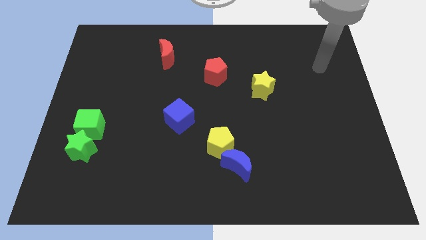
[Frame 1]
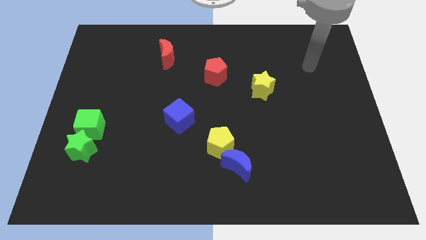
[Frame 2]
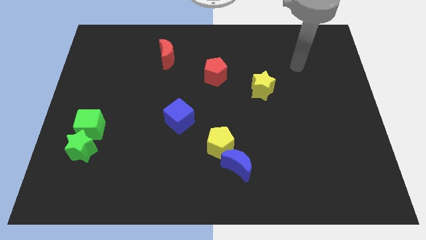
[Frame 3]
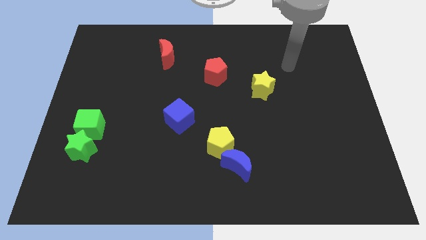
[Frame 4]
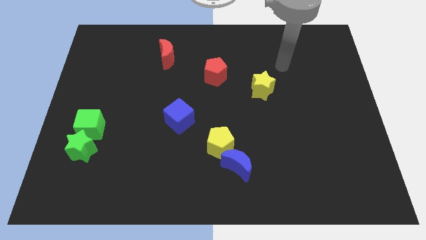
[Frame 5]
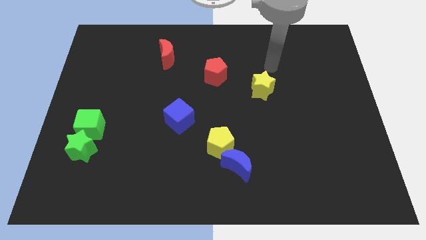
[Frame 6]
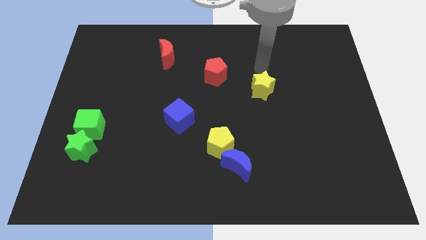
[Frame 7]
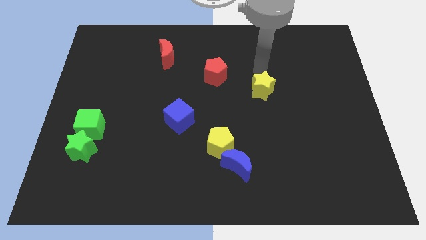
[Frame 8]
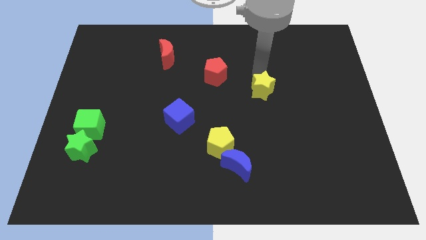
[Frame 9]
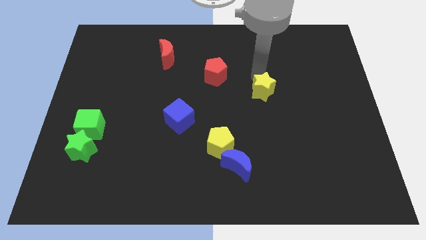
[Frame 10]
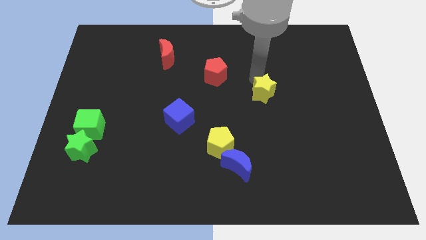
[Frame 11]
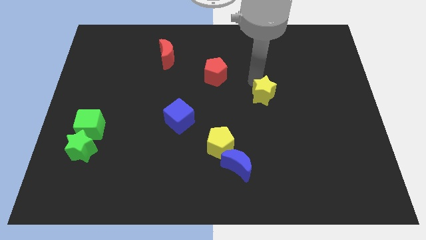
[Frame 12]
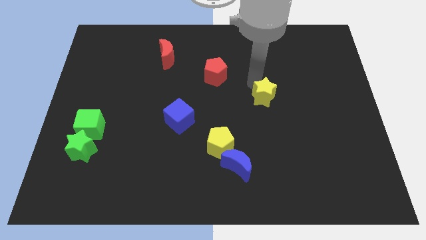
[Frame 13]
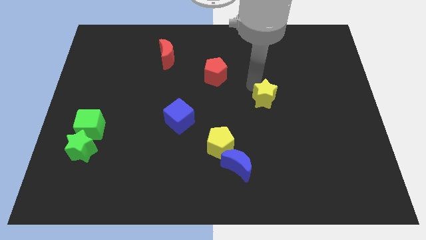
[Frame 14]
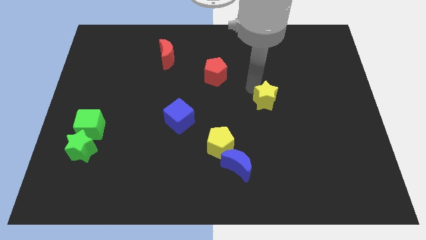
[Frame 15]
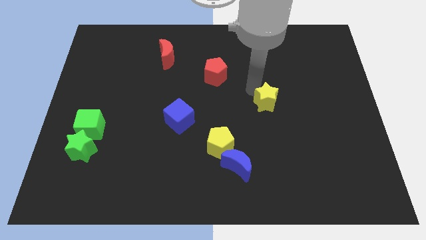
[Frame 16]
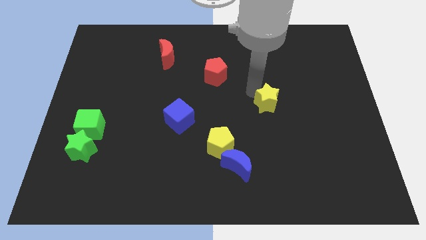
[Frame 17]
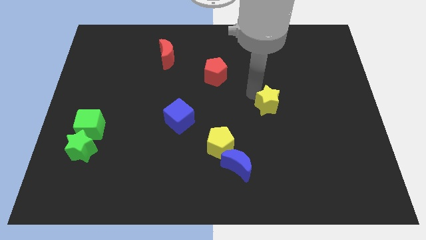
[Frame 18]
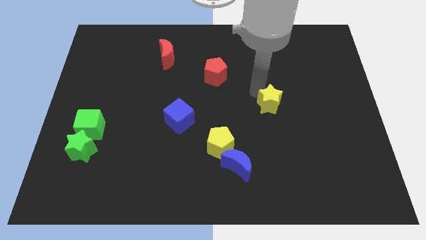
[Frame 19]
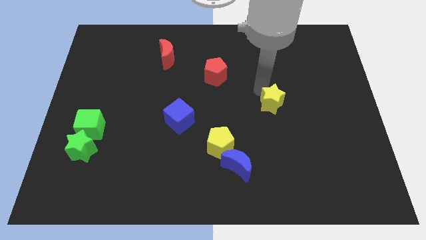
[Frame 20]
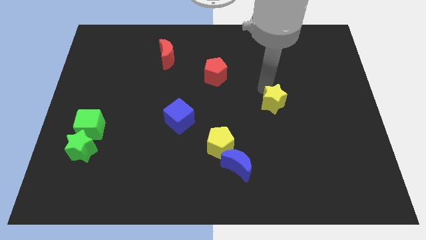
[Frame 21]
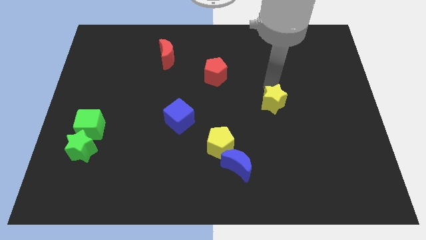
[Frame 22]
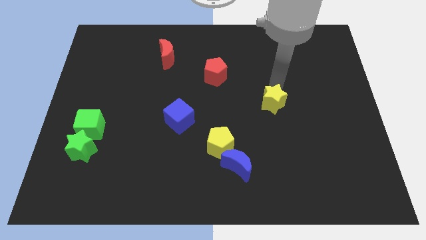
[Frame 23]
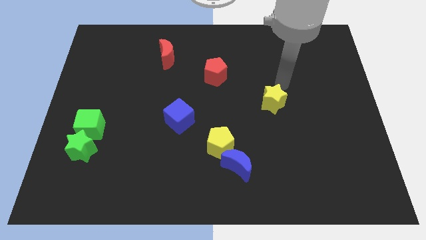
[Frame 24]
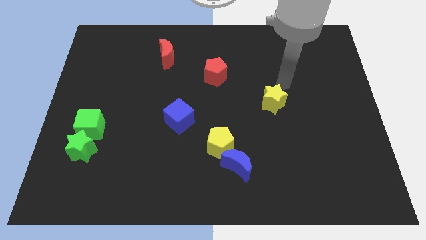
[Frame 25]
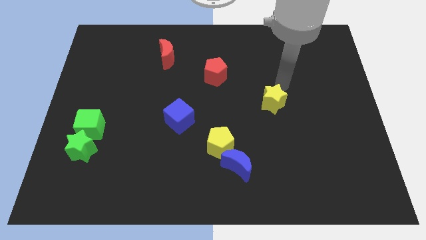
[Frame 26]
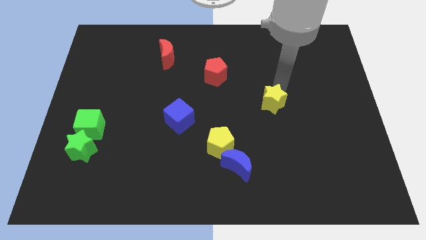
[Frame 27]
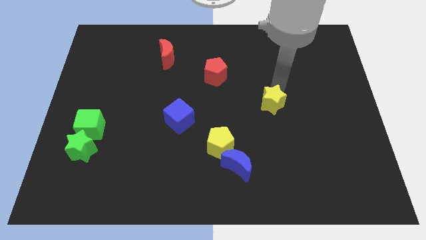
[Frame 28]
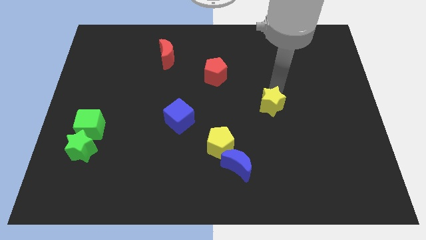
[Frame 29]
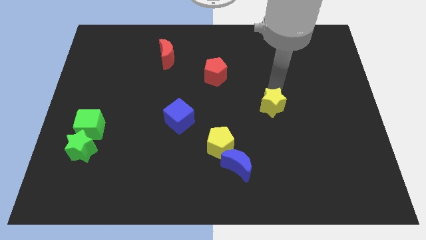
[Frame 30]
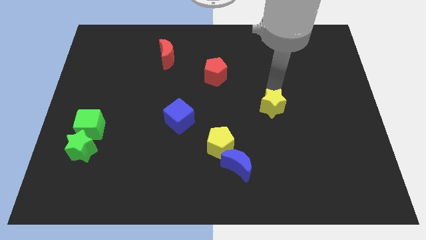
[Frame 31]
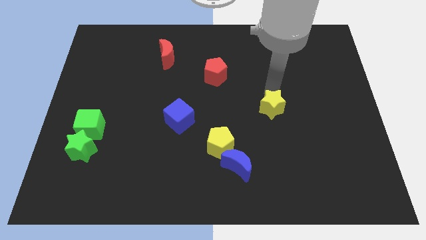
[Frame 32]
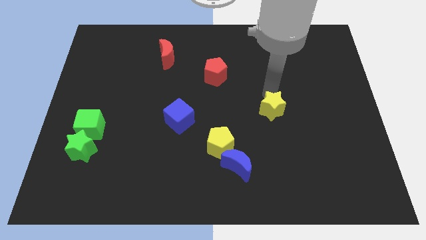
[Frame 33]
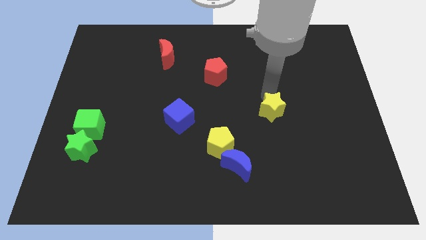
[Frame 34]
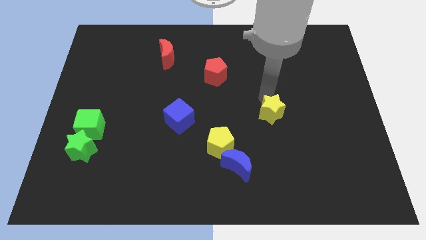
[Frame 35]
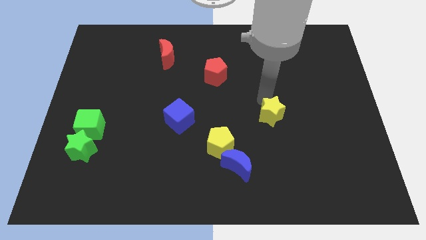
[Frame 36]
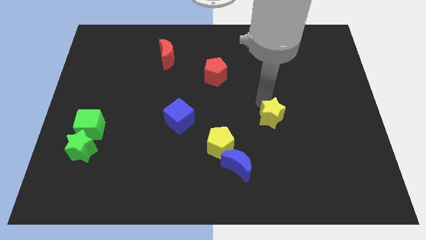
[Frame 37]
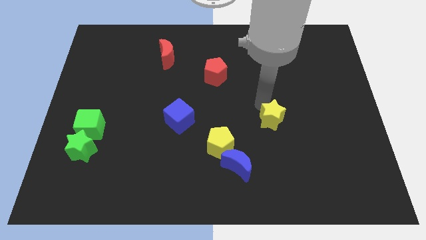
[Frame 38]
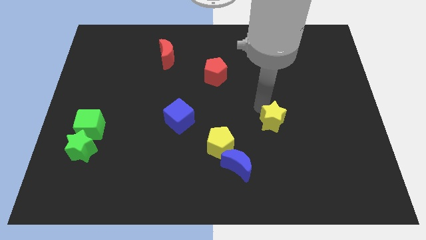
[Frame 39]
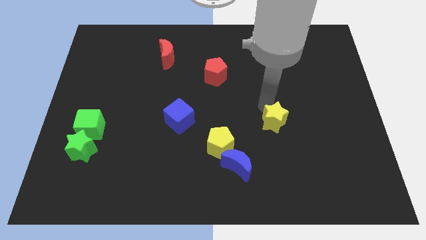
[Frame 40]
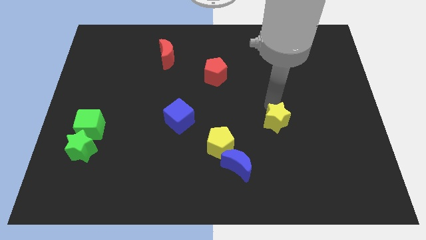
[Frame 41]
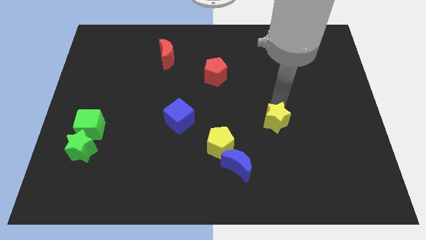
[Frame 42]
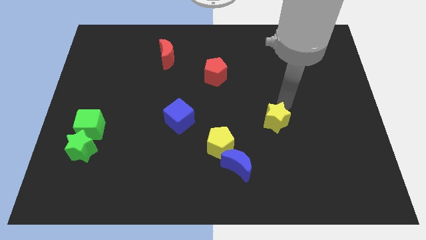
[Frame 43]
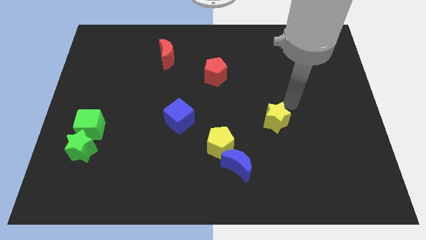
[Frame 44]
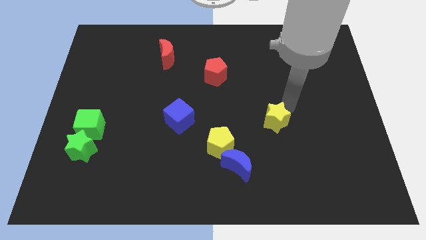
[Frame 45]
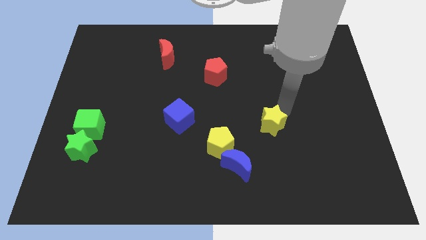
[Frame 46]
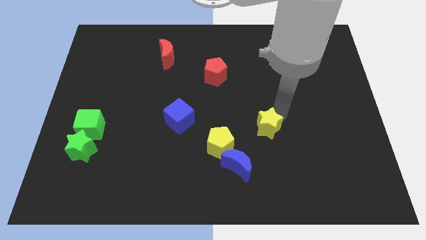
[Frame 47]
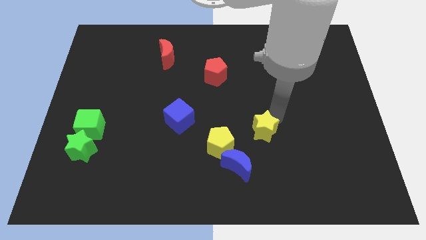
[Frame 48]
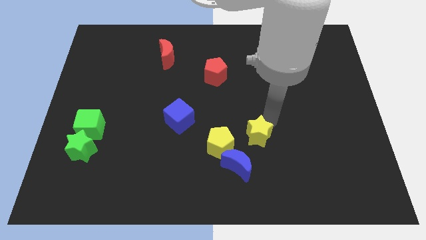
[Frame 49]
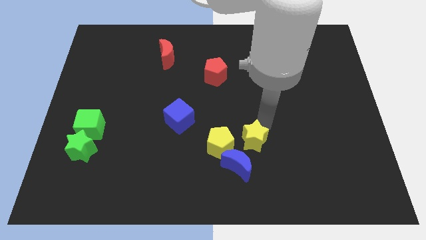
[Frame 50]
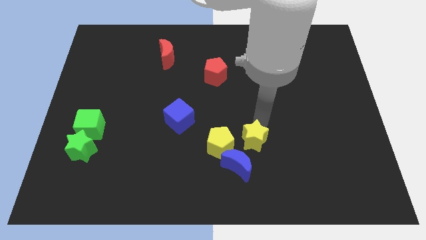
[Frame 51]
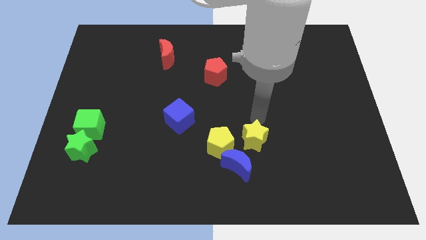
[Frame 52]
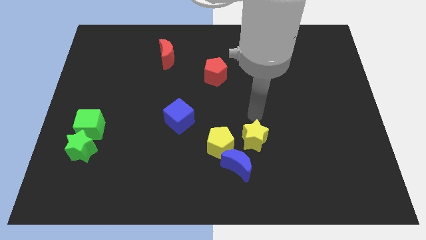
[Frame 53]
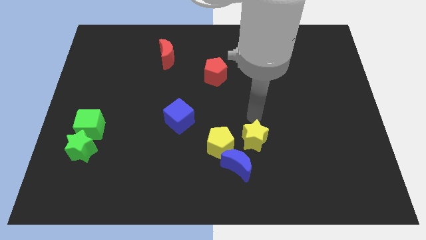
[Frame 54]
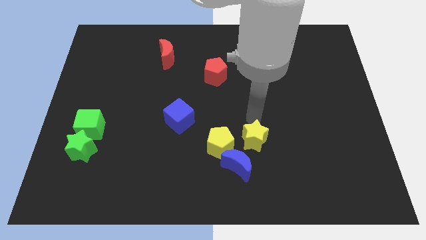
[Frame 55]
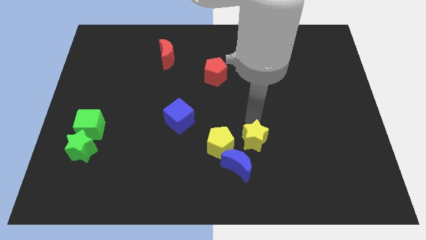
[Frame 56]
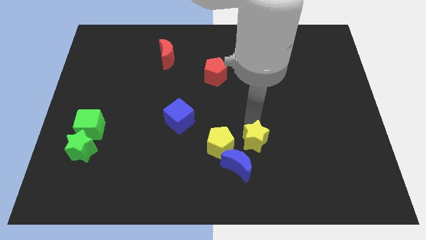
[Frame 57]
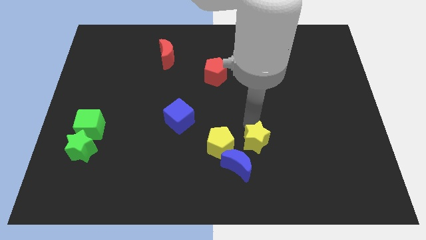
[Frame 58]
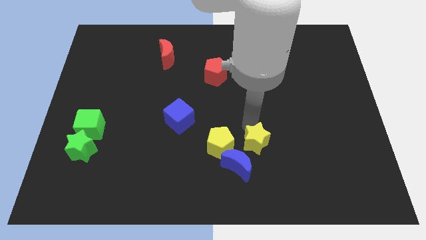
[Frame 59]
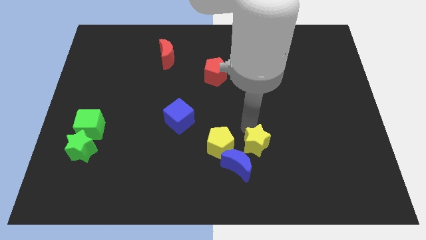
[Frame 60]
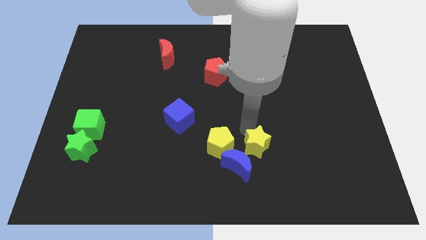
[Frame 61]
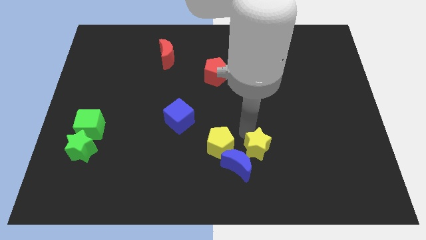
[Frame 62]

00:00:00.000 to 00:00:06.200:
slide the yellow star next to the blue moon

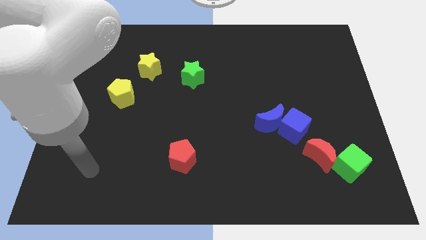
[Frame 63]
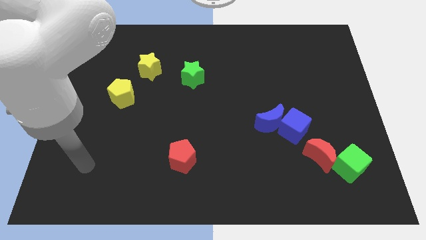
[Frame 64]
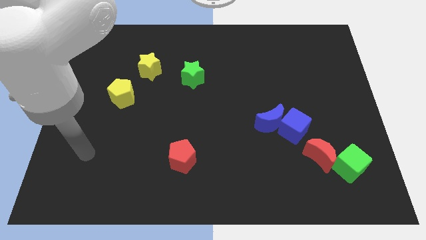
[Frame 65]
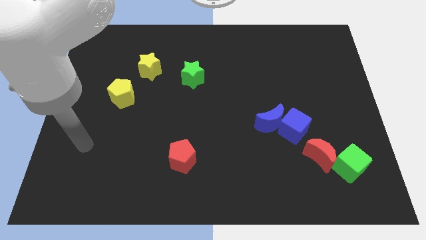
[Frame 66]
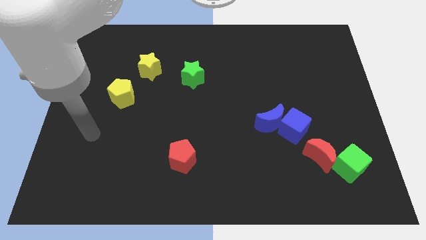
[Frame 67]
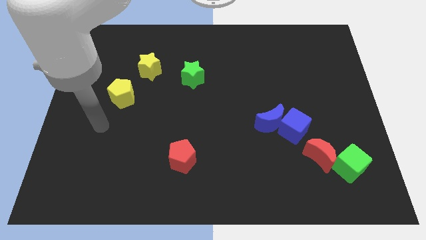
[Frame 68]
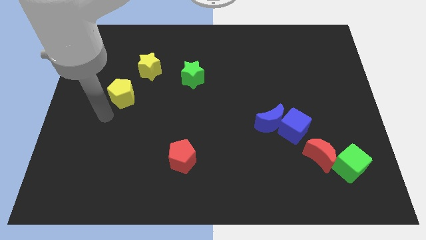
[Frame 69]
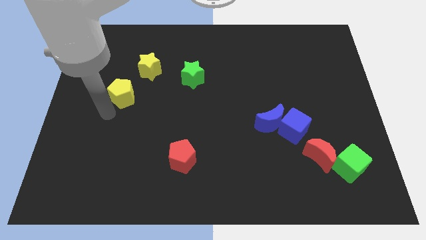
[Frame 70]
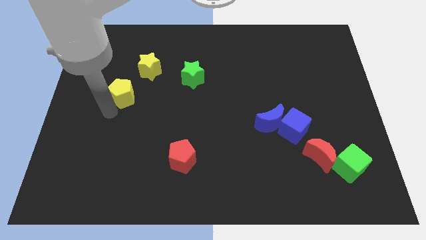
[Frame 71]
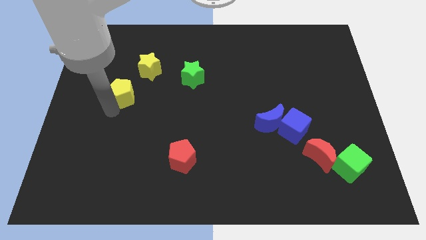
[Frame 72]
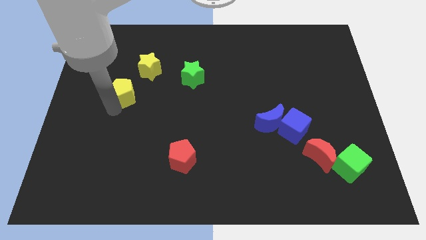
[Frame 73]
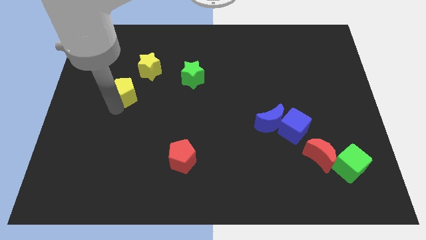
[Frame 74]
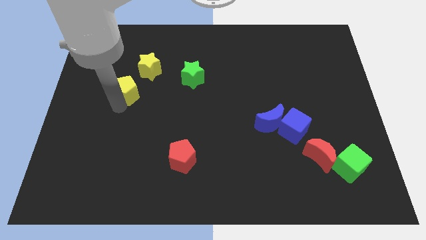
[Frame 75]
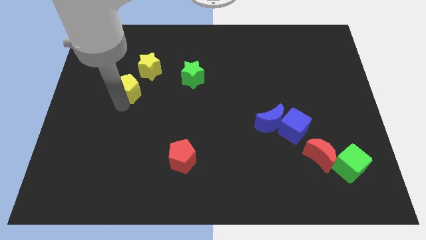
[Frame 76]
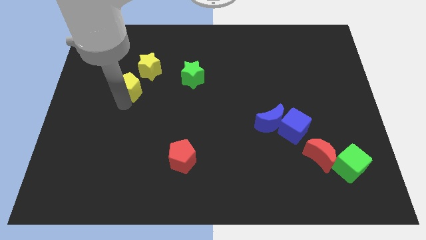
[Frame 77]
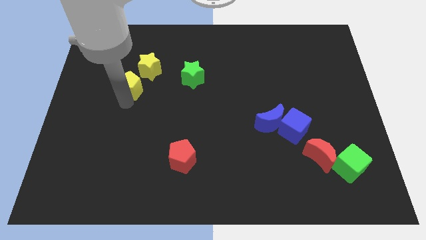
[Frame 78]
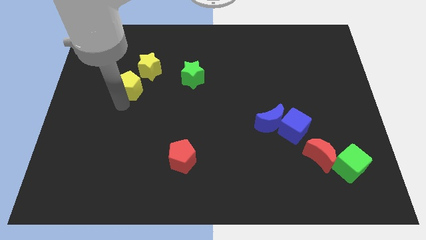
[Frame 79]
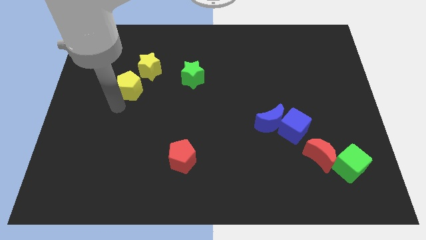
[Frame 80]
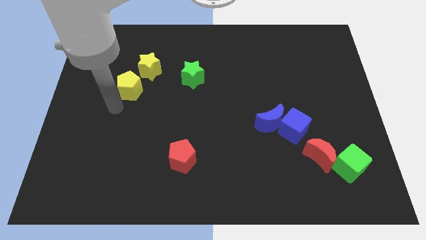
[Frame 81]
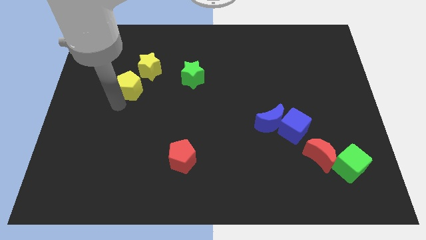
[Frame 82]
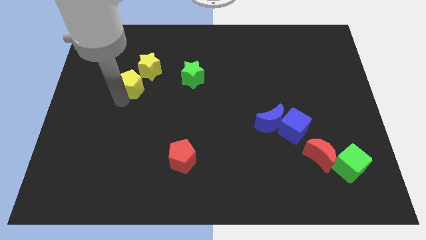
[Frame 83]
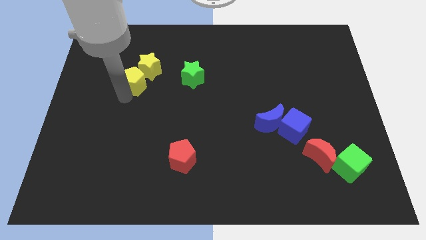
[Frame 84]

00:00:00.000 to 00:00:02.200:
push the yellow pentagon close to the yellow star
